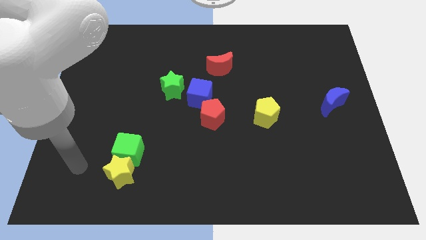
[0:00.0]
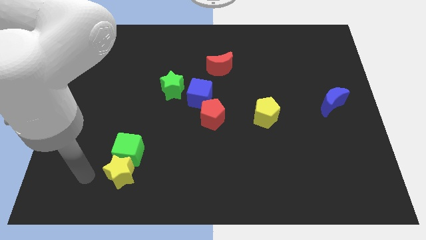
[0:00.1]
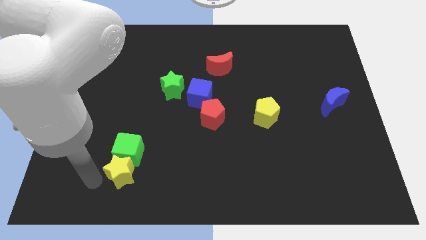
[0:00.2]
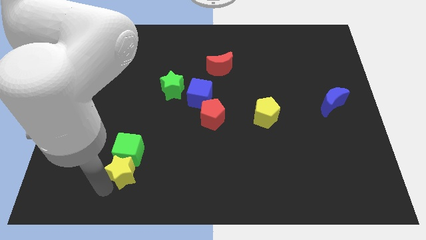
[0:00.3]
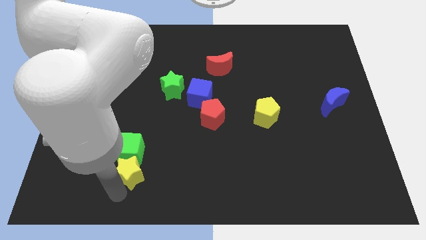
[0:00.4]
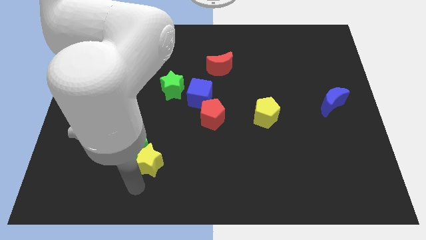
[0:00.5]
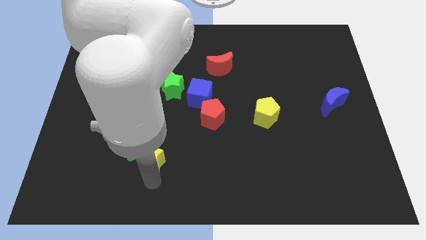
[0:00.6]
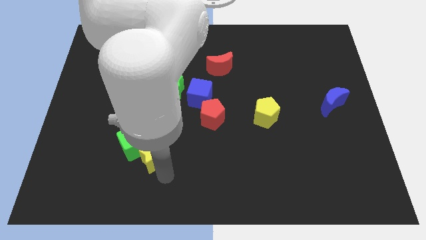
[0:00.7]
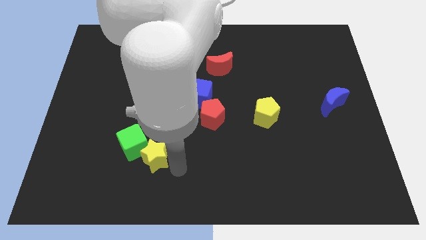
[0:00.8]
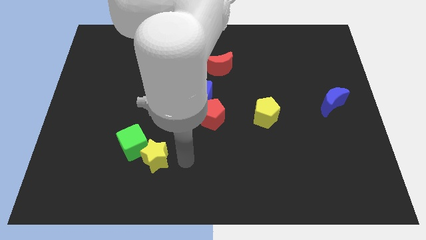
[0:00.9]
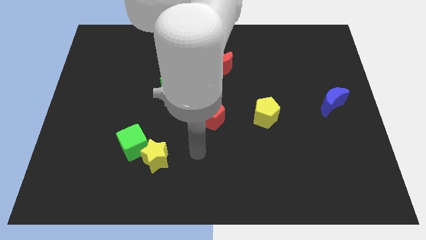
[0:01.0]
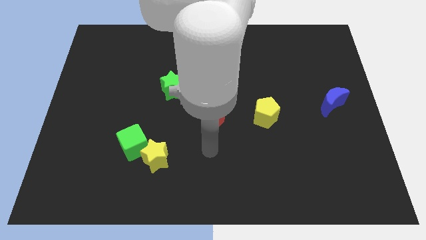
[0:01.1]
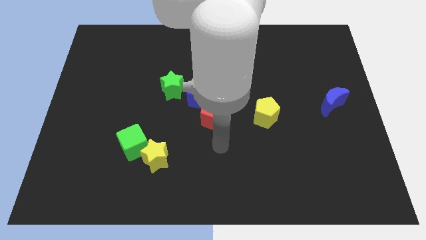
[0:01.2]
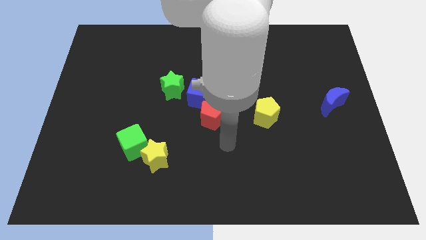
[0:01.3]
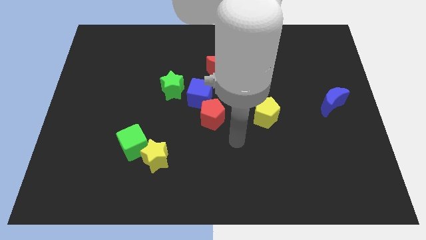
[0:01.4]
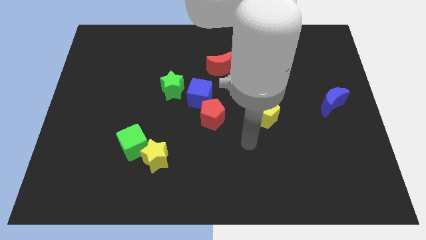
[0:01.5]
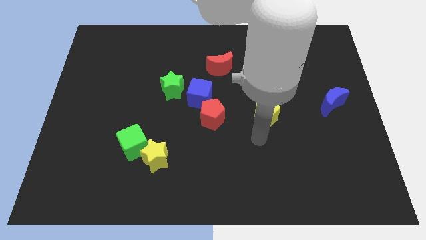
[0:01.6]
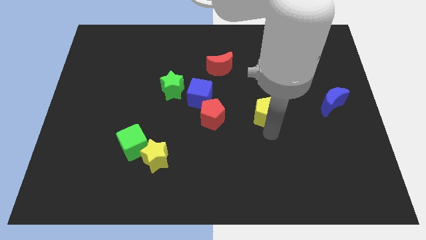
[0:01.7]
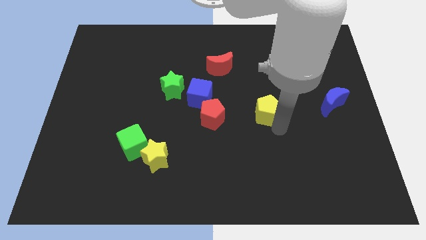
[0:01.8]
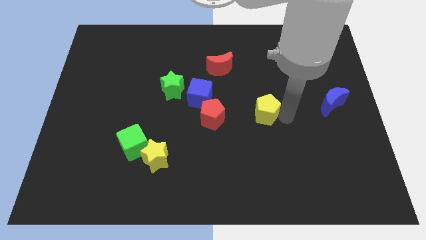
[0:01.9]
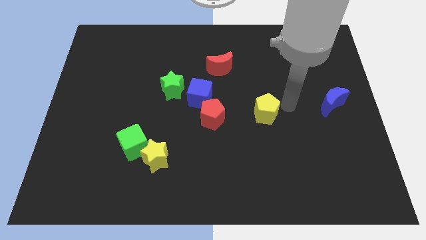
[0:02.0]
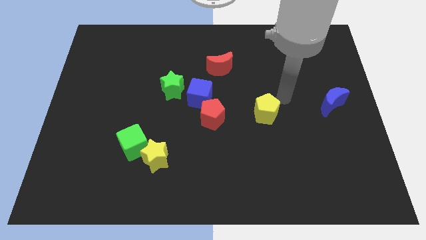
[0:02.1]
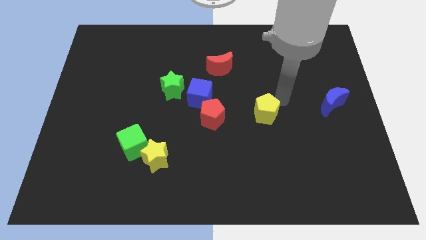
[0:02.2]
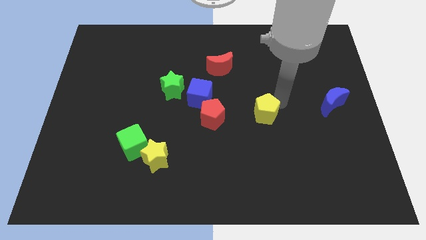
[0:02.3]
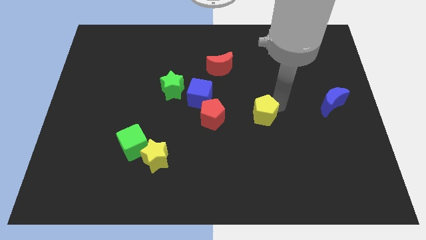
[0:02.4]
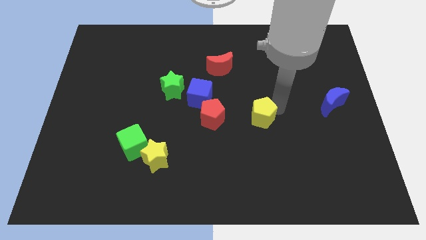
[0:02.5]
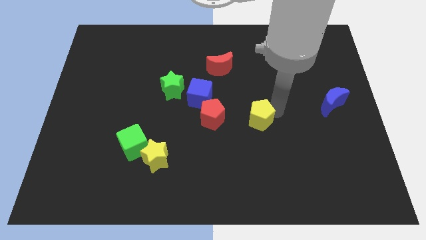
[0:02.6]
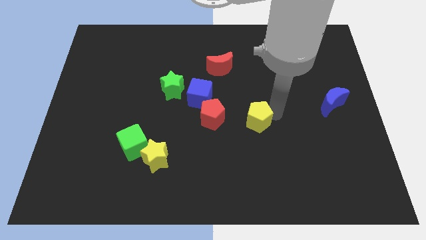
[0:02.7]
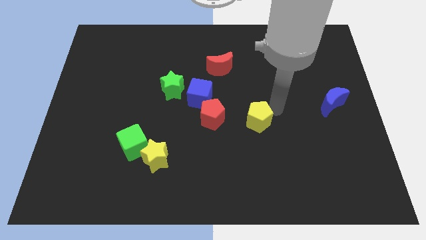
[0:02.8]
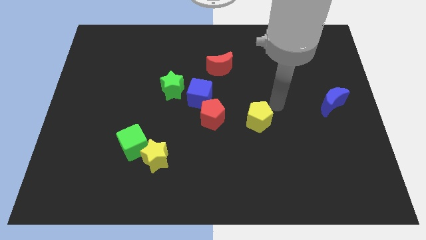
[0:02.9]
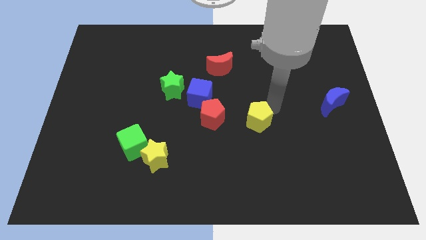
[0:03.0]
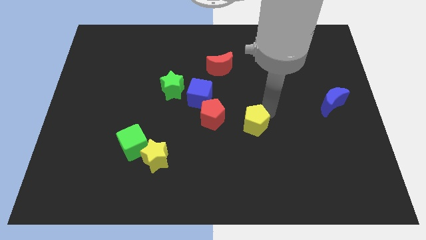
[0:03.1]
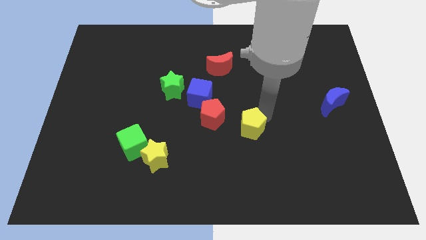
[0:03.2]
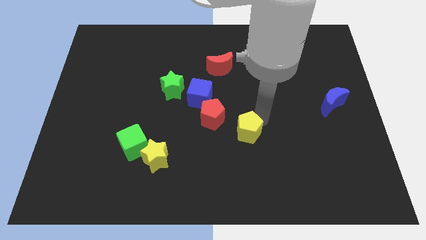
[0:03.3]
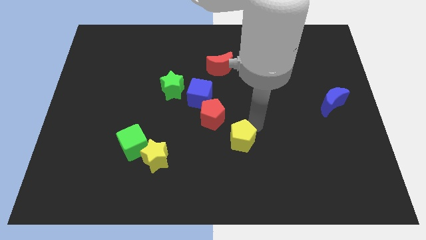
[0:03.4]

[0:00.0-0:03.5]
push the yellow pentagon diagonally downwards and to the left a bit

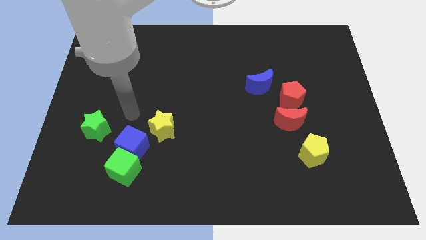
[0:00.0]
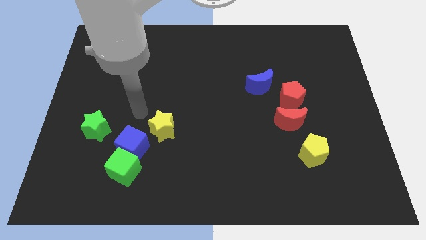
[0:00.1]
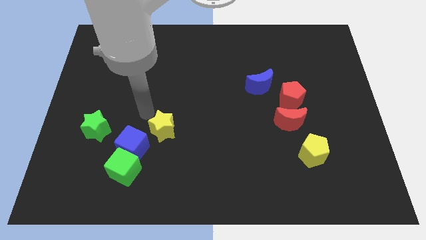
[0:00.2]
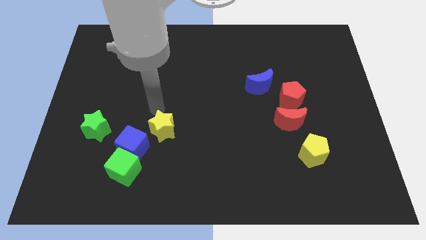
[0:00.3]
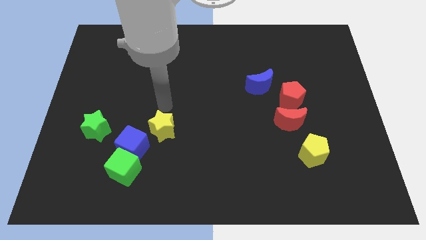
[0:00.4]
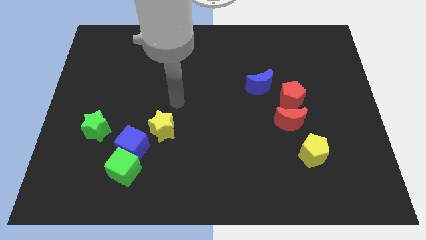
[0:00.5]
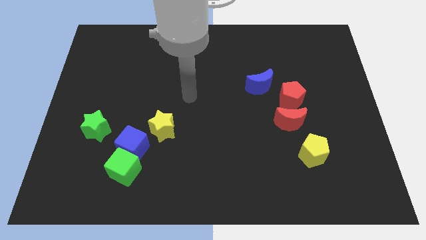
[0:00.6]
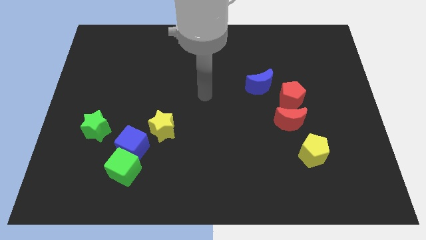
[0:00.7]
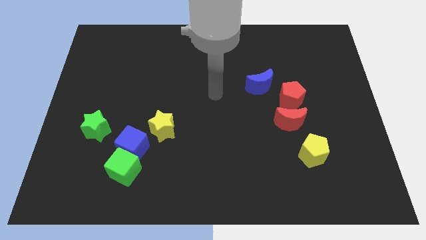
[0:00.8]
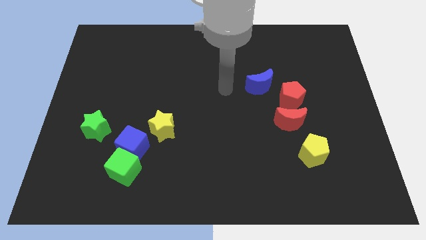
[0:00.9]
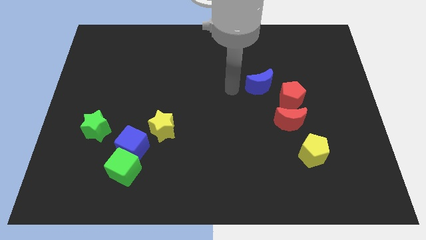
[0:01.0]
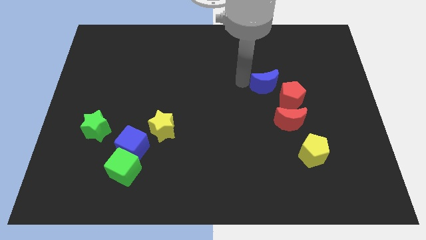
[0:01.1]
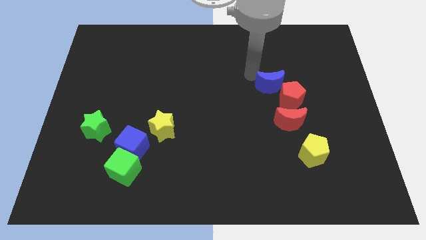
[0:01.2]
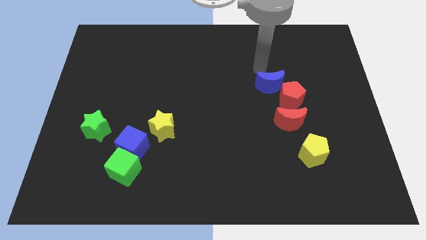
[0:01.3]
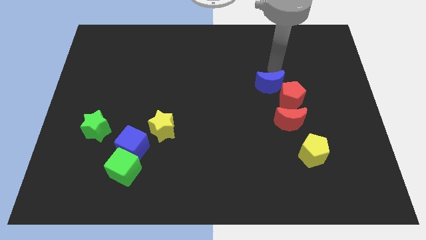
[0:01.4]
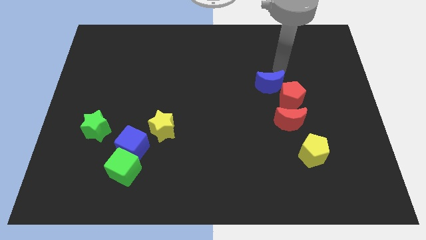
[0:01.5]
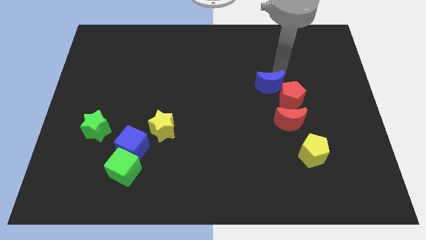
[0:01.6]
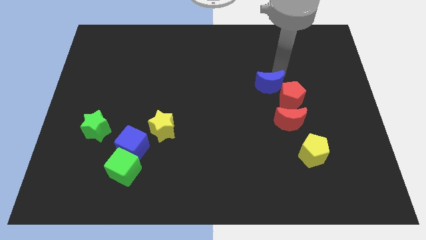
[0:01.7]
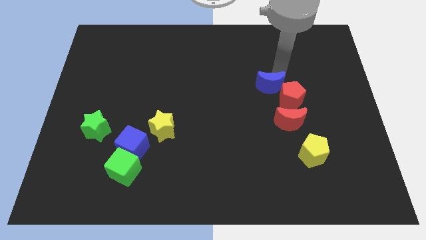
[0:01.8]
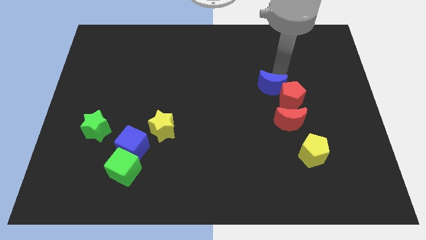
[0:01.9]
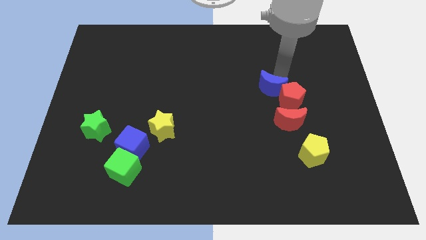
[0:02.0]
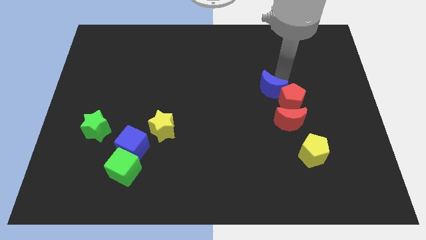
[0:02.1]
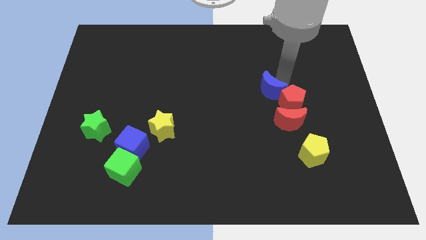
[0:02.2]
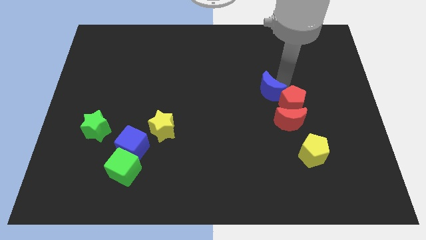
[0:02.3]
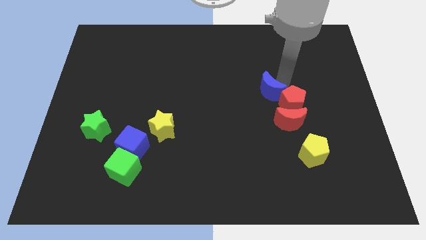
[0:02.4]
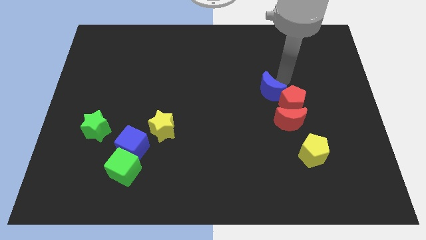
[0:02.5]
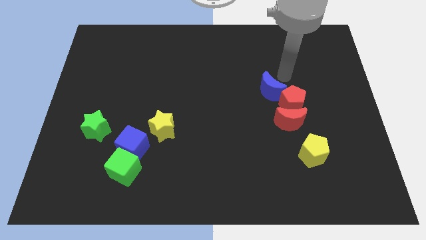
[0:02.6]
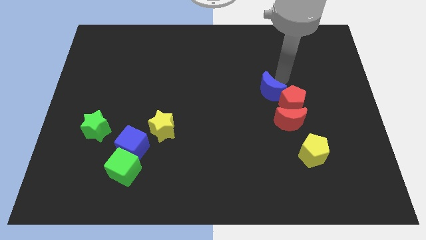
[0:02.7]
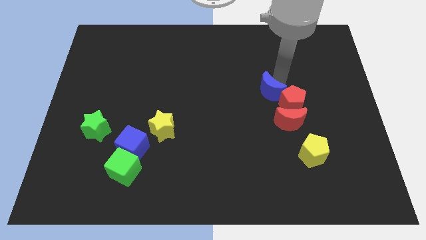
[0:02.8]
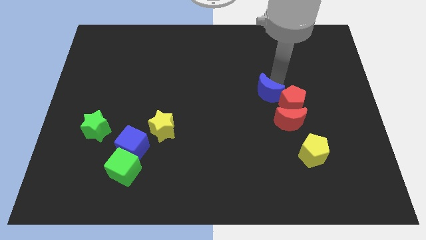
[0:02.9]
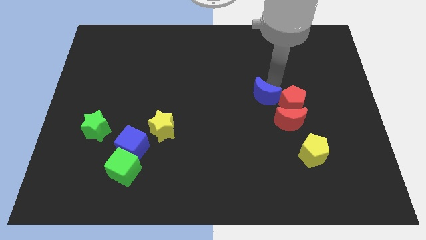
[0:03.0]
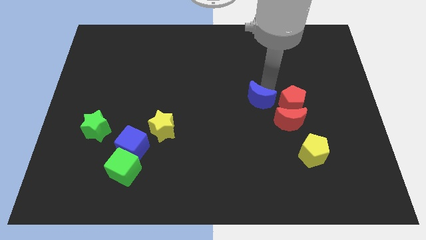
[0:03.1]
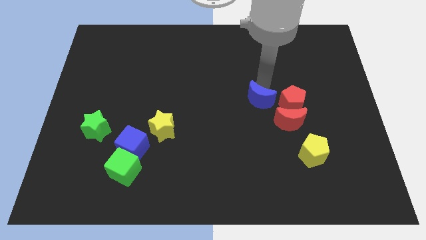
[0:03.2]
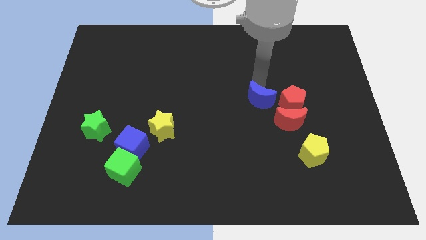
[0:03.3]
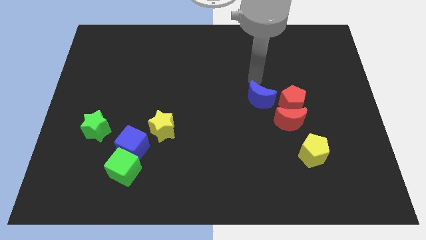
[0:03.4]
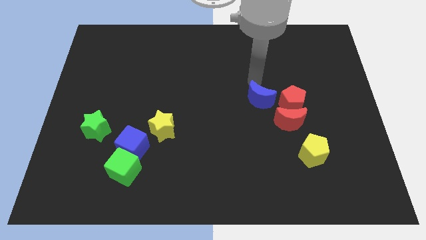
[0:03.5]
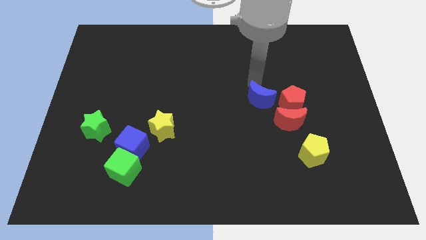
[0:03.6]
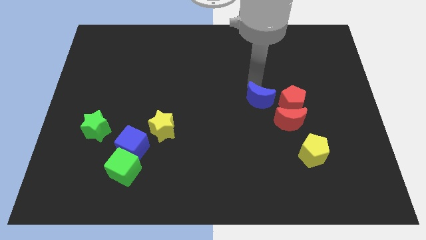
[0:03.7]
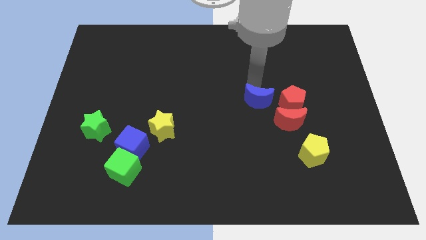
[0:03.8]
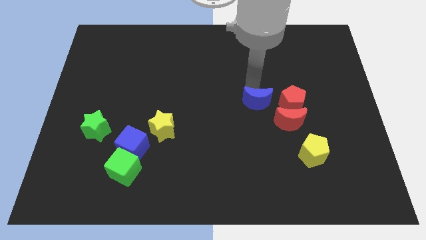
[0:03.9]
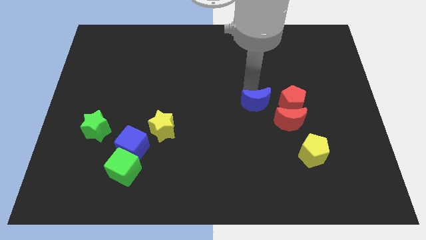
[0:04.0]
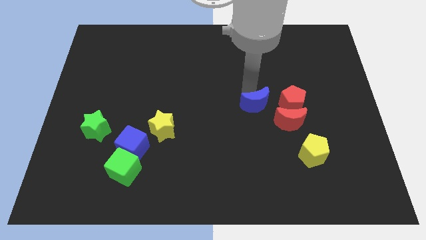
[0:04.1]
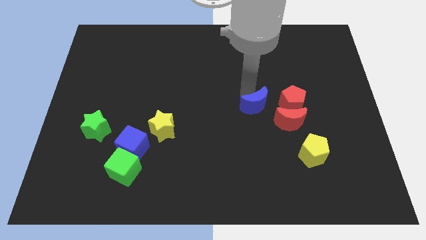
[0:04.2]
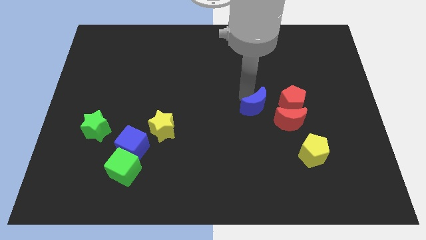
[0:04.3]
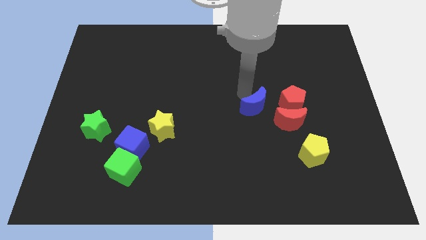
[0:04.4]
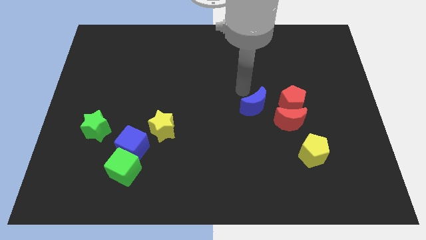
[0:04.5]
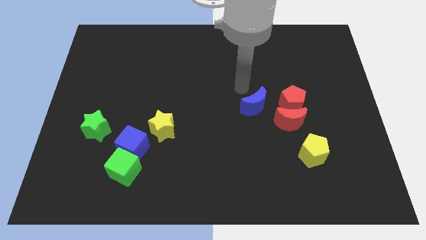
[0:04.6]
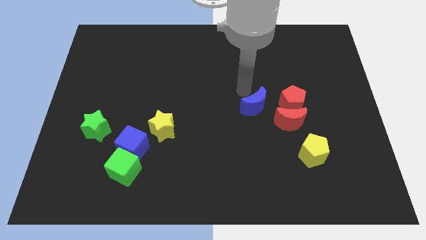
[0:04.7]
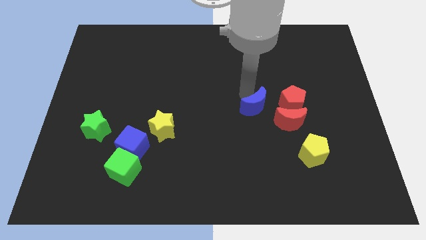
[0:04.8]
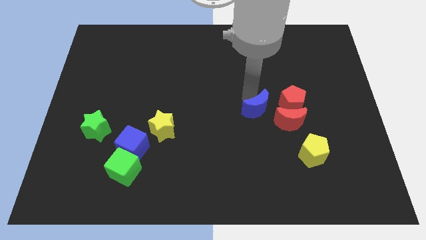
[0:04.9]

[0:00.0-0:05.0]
slide the blue moon down a bit

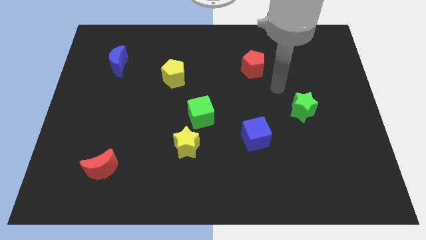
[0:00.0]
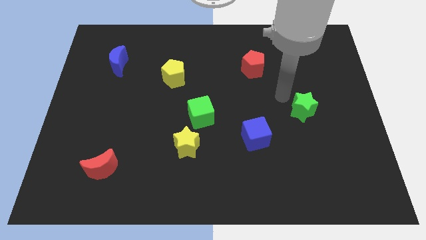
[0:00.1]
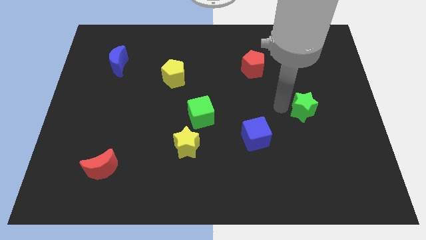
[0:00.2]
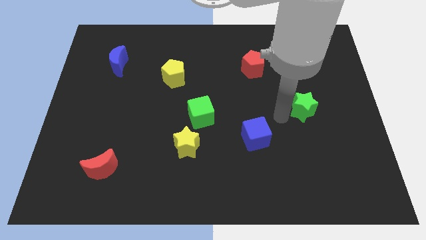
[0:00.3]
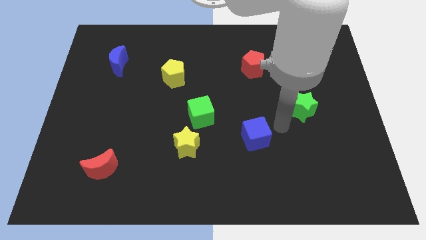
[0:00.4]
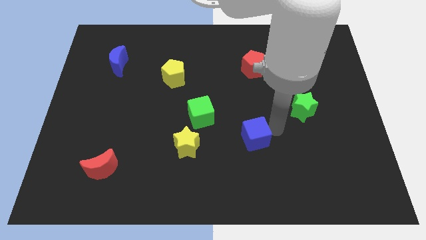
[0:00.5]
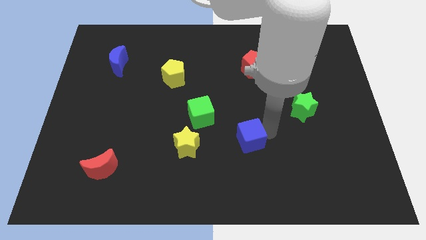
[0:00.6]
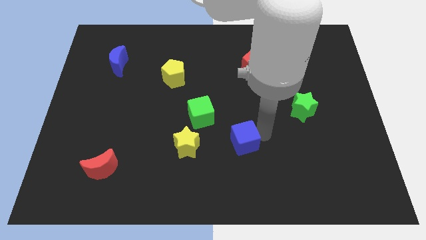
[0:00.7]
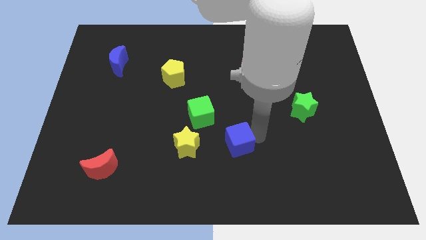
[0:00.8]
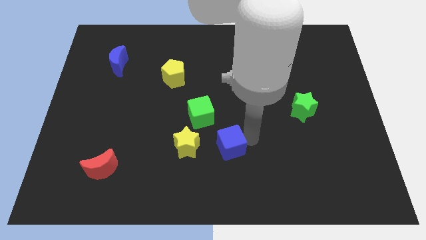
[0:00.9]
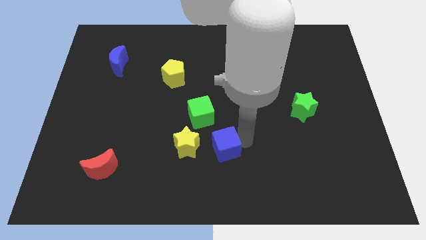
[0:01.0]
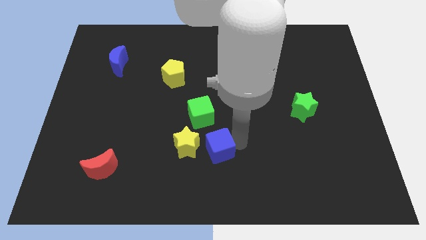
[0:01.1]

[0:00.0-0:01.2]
slide the blue cube left a little
